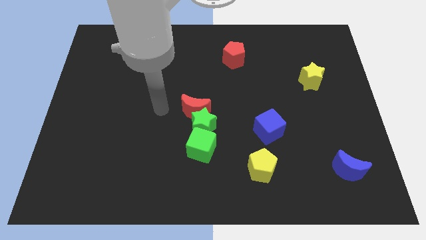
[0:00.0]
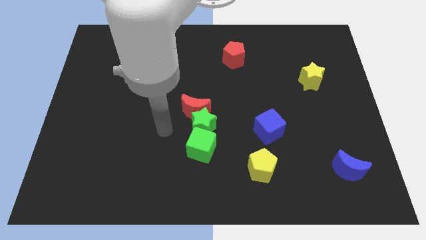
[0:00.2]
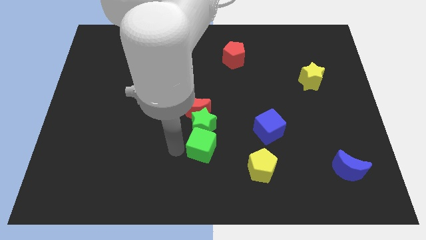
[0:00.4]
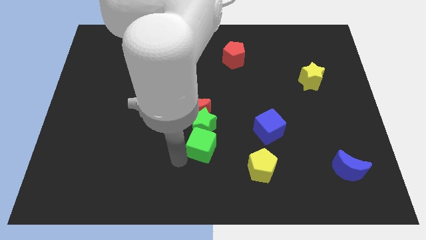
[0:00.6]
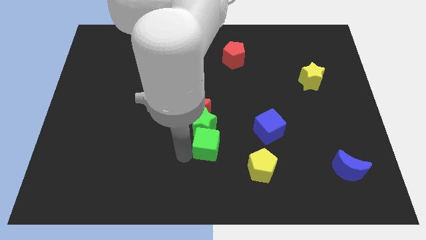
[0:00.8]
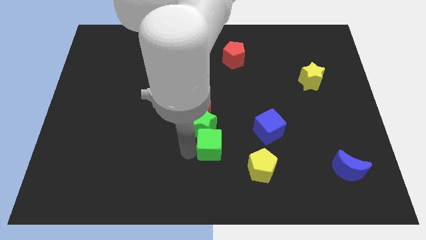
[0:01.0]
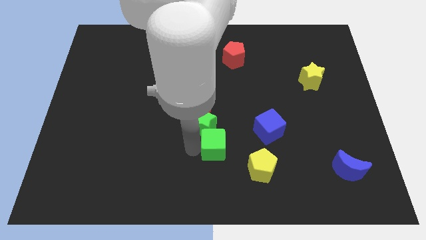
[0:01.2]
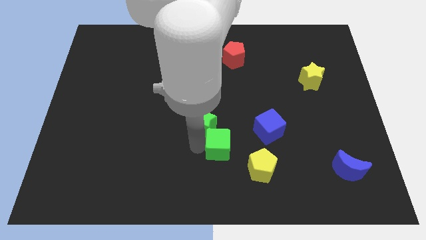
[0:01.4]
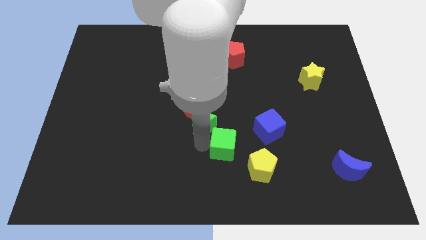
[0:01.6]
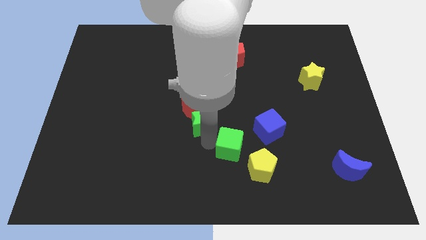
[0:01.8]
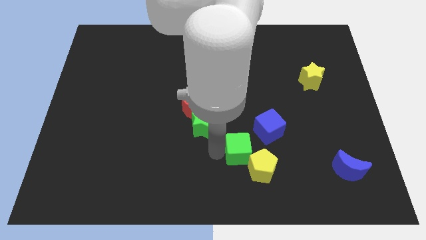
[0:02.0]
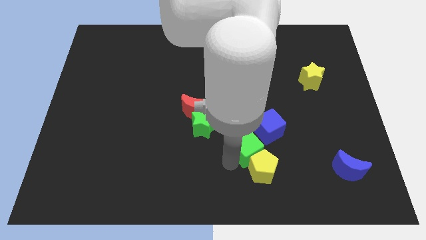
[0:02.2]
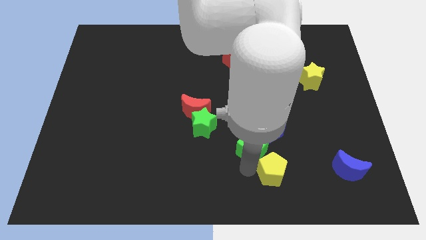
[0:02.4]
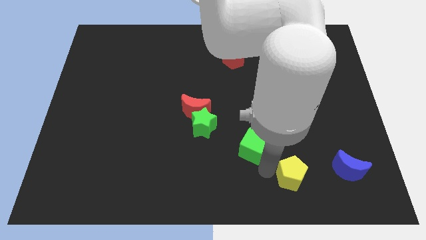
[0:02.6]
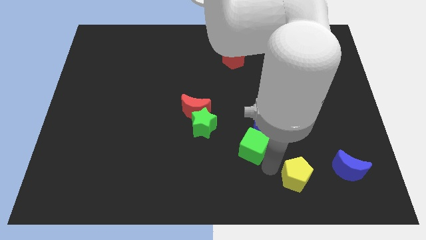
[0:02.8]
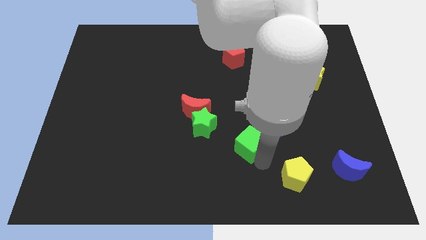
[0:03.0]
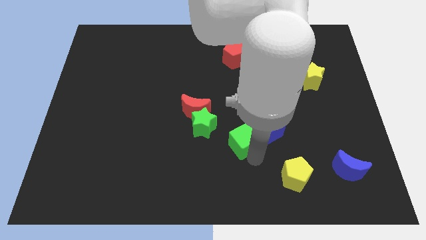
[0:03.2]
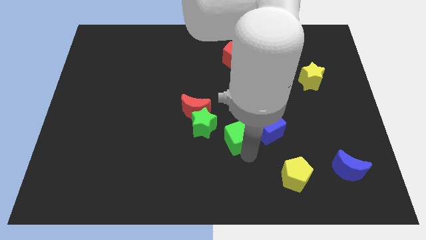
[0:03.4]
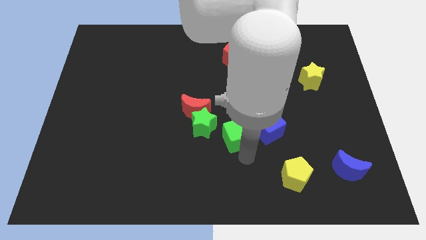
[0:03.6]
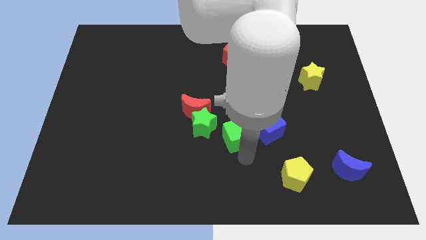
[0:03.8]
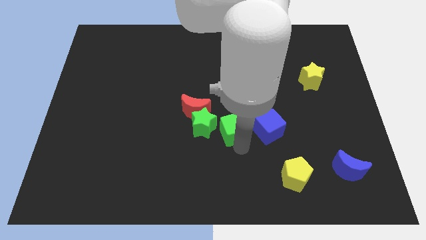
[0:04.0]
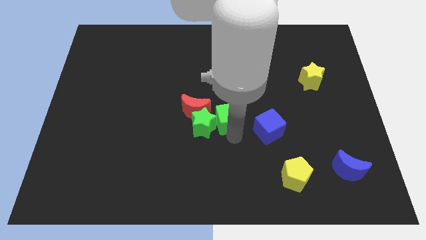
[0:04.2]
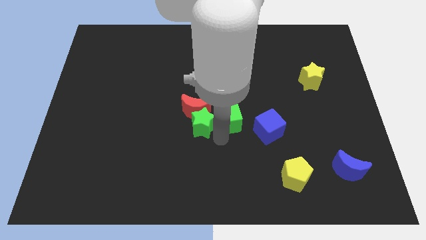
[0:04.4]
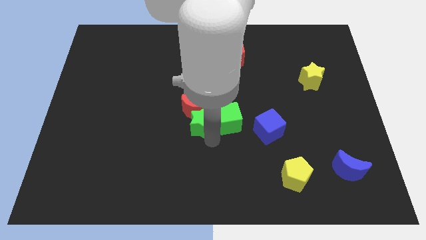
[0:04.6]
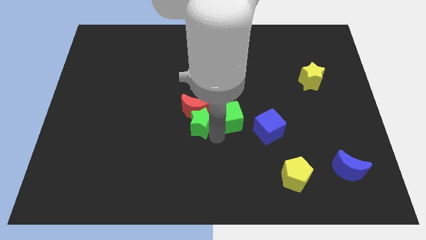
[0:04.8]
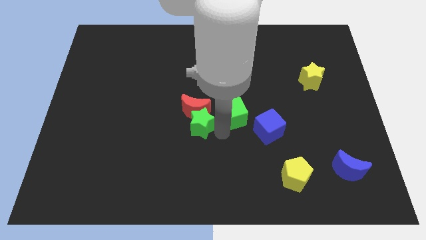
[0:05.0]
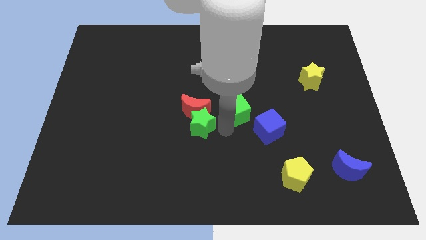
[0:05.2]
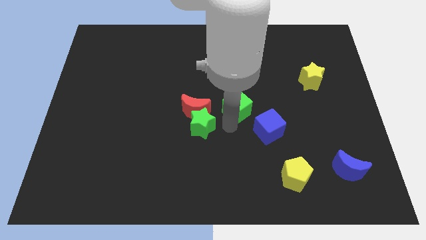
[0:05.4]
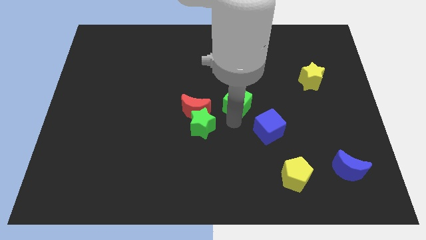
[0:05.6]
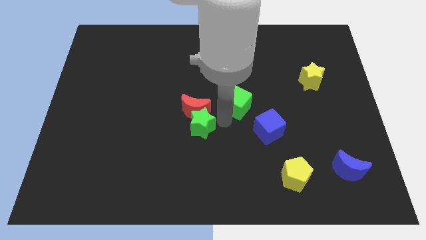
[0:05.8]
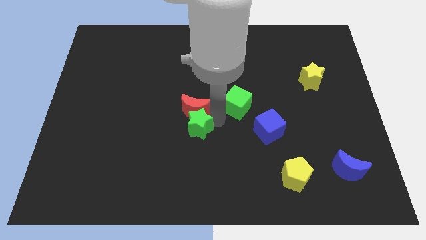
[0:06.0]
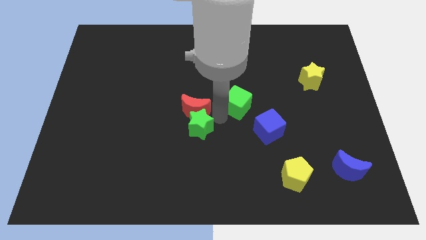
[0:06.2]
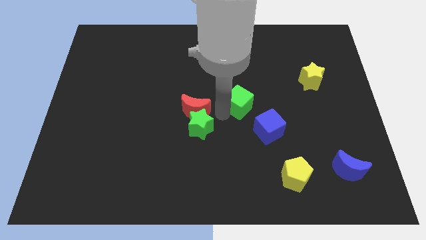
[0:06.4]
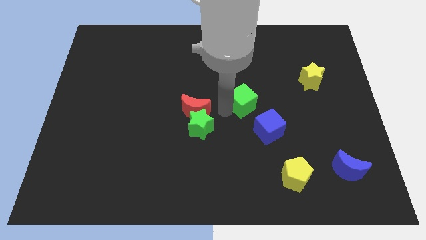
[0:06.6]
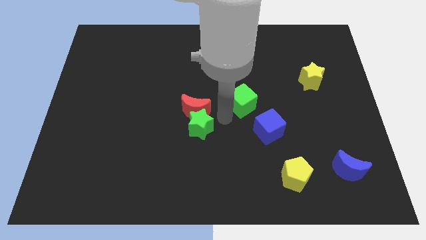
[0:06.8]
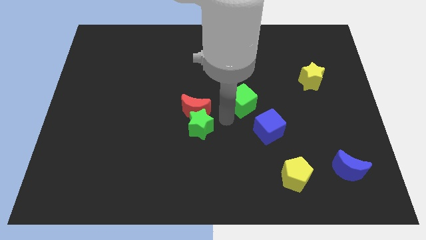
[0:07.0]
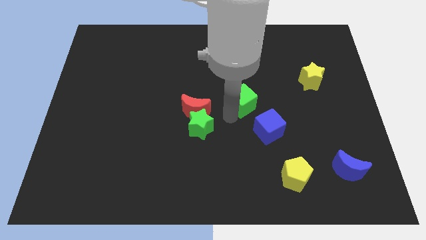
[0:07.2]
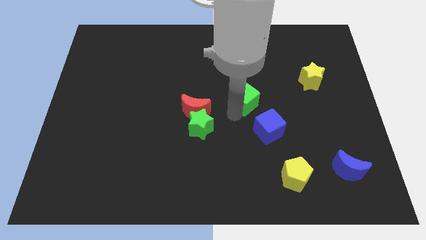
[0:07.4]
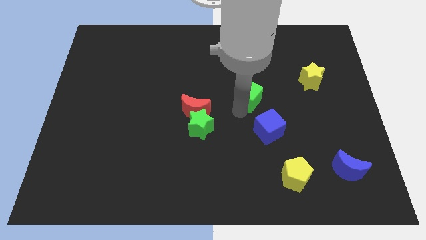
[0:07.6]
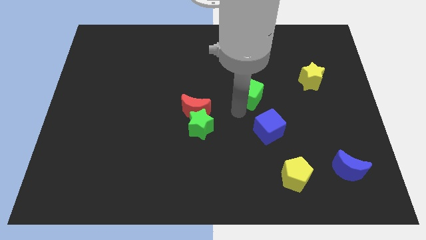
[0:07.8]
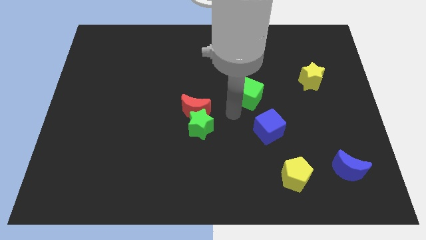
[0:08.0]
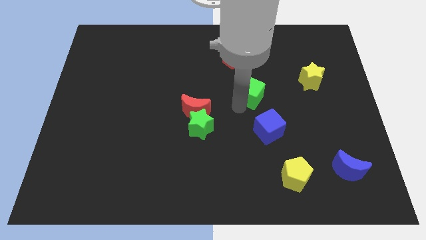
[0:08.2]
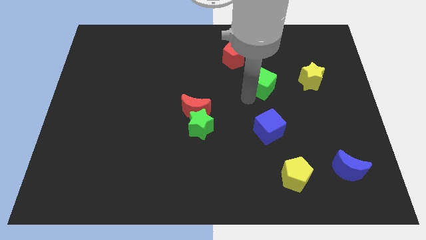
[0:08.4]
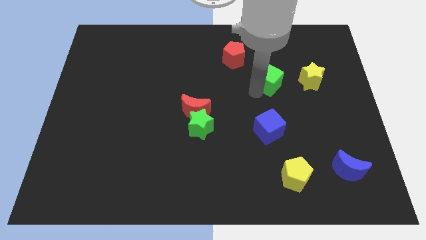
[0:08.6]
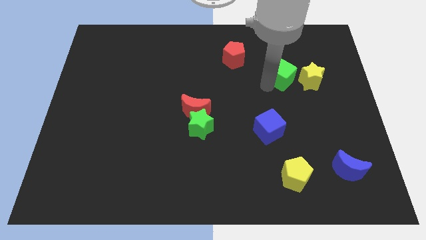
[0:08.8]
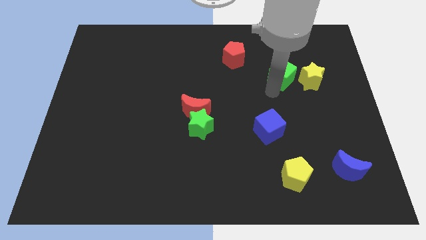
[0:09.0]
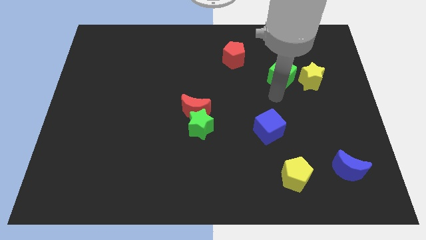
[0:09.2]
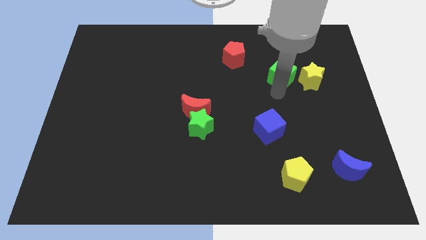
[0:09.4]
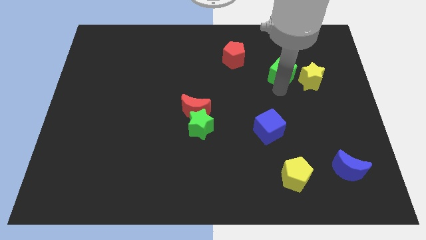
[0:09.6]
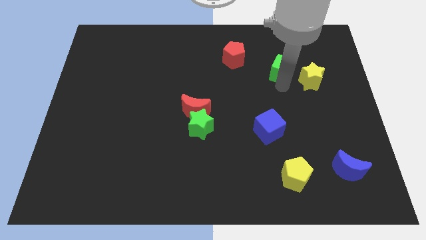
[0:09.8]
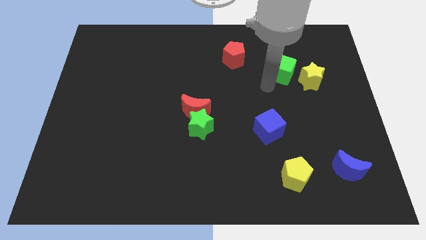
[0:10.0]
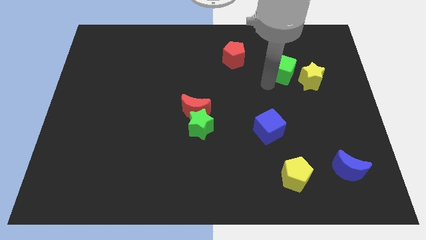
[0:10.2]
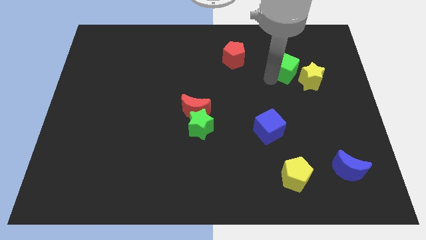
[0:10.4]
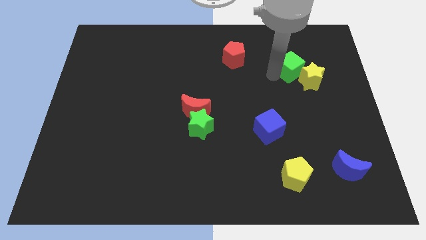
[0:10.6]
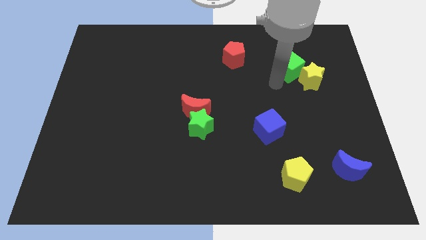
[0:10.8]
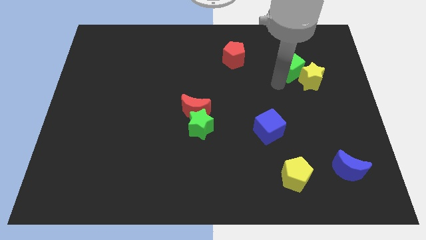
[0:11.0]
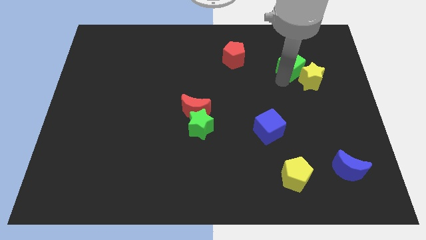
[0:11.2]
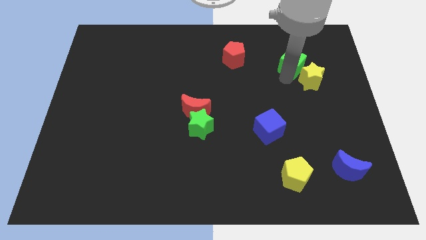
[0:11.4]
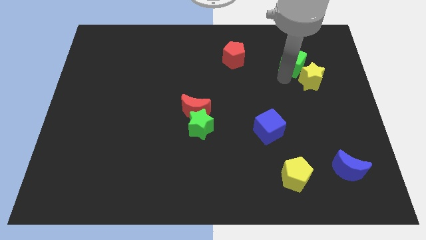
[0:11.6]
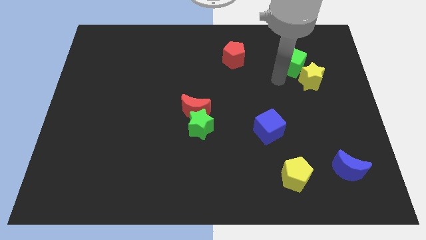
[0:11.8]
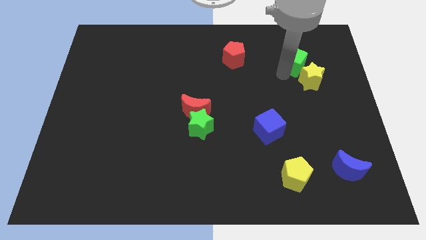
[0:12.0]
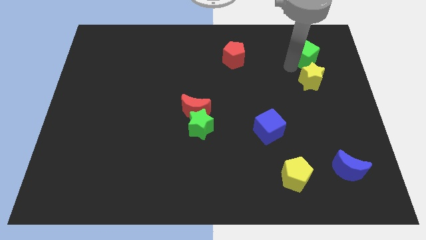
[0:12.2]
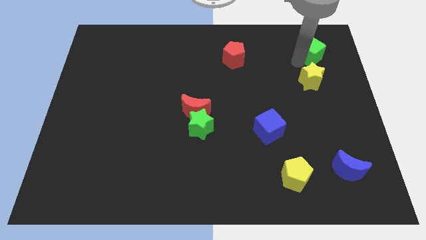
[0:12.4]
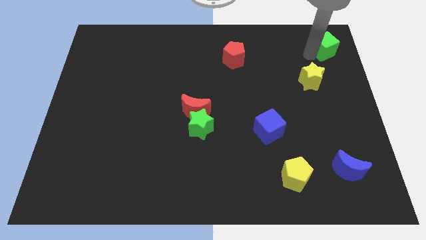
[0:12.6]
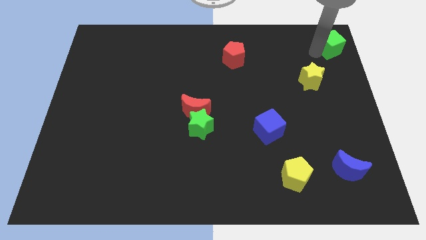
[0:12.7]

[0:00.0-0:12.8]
move the green cube to the top right corner
